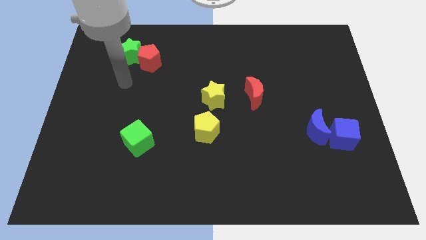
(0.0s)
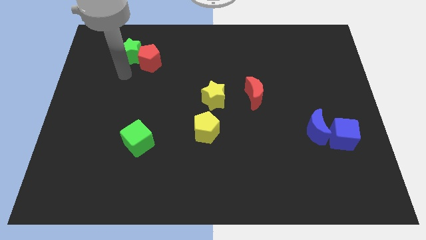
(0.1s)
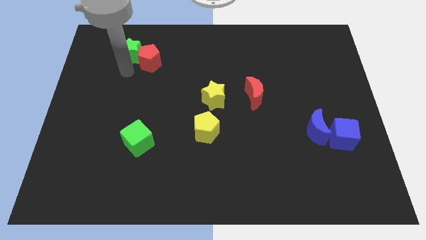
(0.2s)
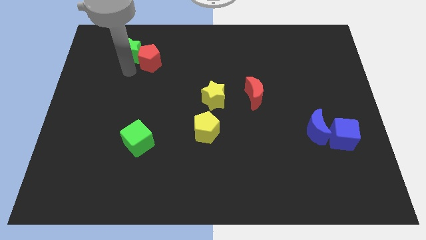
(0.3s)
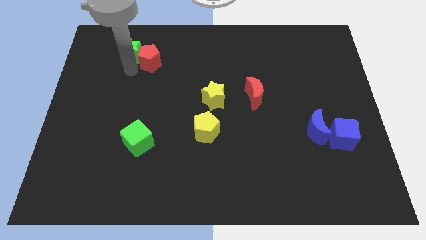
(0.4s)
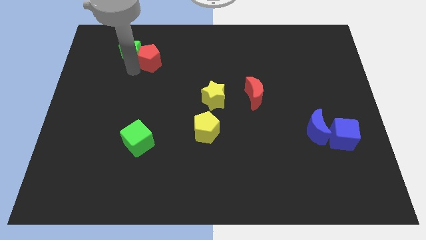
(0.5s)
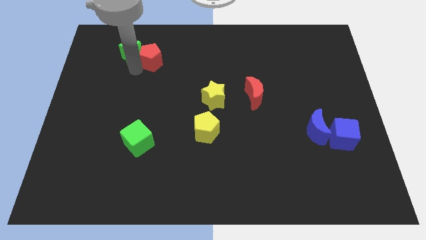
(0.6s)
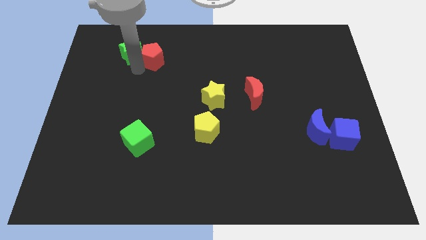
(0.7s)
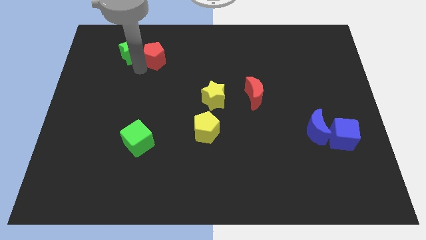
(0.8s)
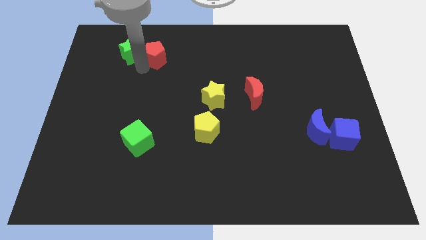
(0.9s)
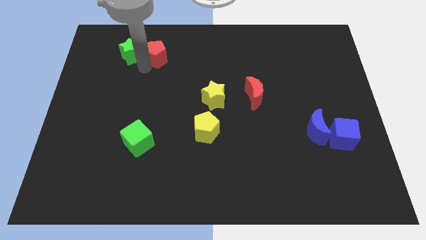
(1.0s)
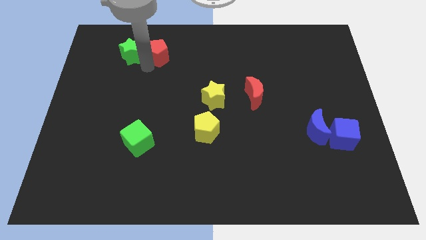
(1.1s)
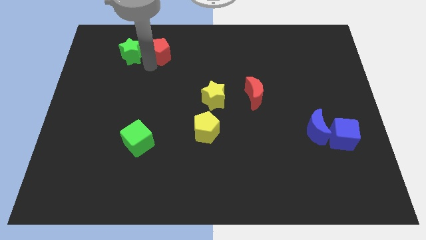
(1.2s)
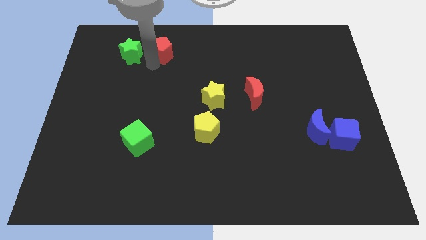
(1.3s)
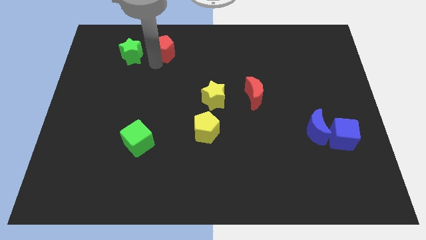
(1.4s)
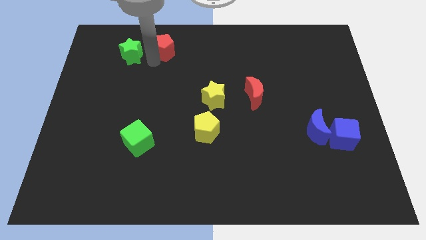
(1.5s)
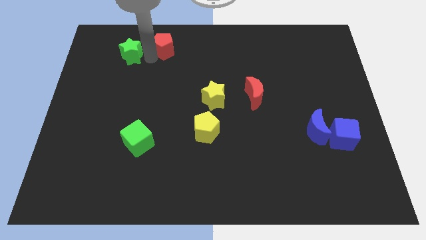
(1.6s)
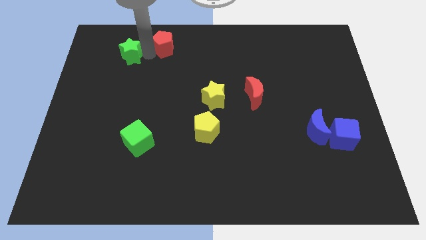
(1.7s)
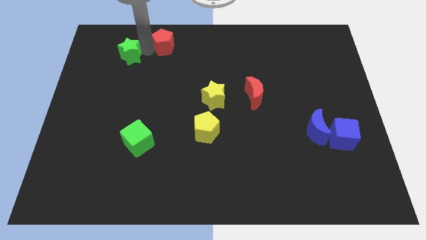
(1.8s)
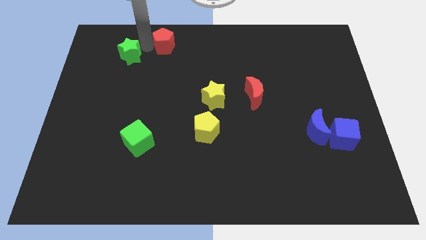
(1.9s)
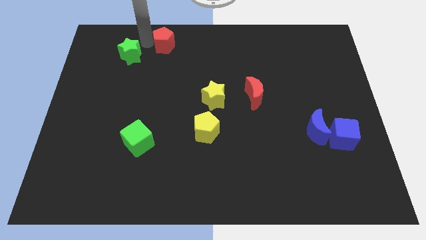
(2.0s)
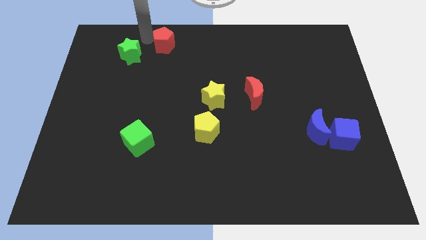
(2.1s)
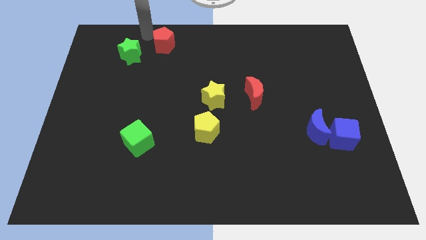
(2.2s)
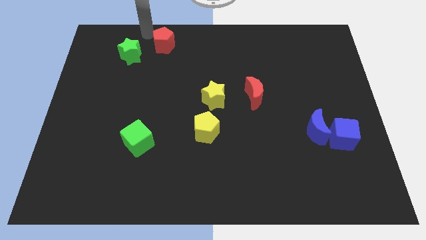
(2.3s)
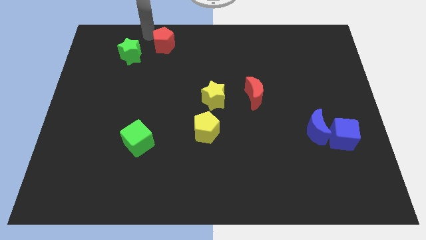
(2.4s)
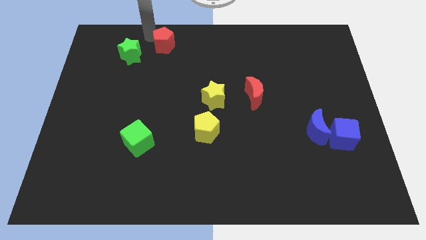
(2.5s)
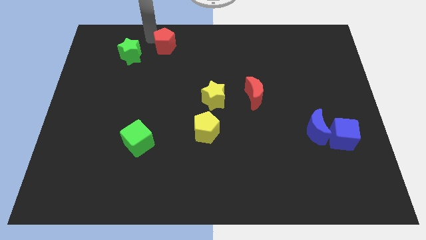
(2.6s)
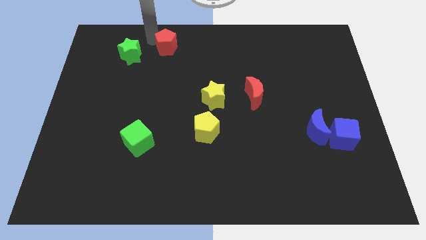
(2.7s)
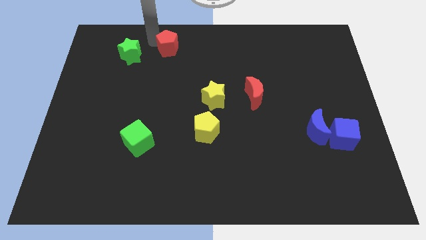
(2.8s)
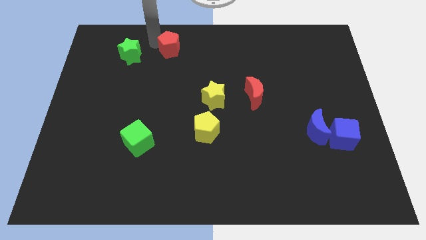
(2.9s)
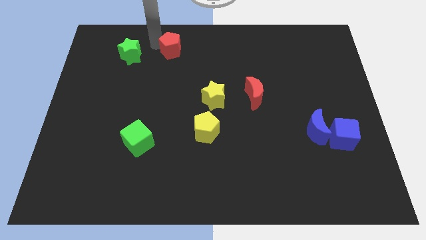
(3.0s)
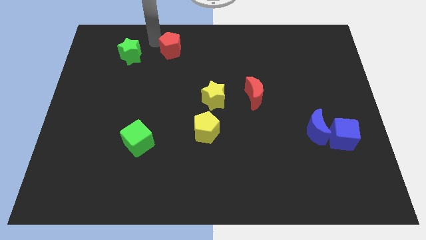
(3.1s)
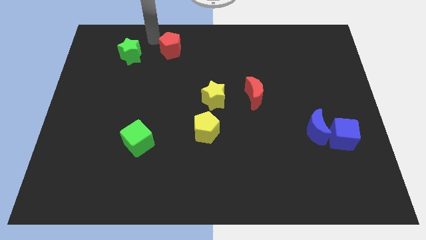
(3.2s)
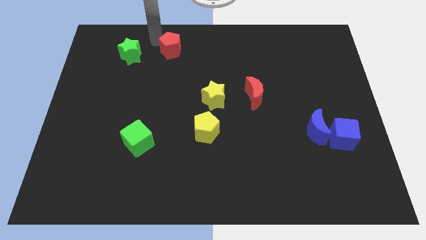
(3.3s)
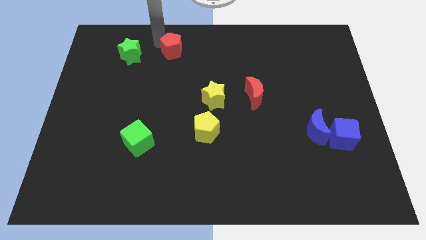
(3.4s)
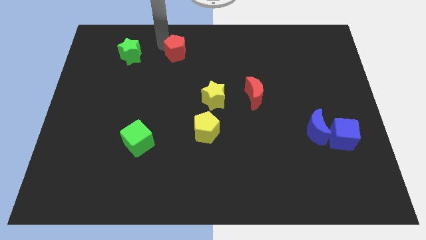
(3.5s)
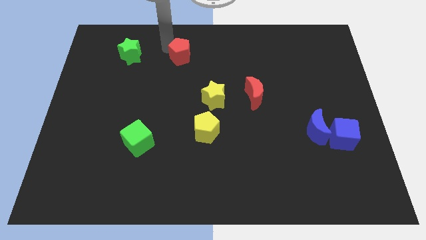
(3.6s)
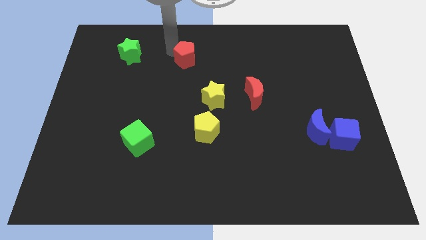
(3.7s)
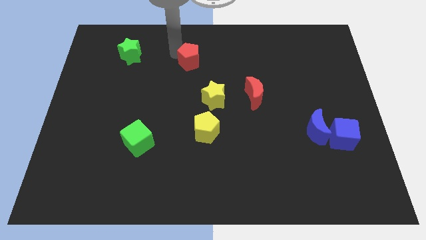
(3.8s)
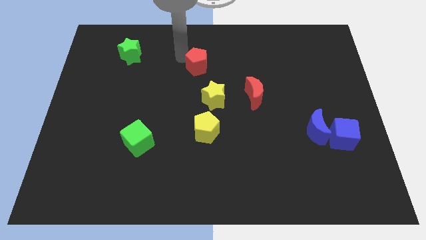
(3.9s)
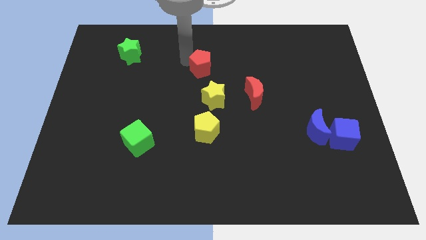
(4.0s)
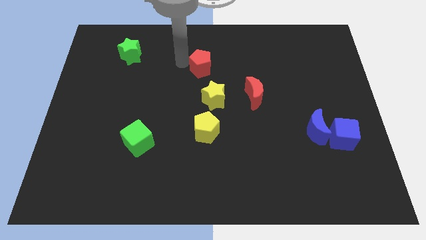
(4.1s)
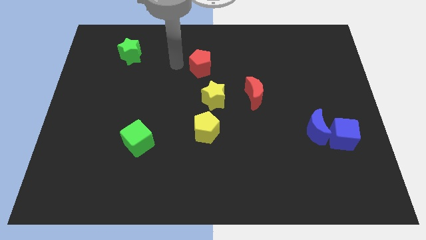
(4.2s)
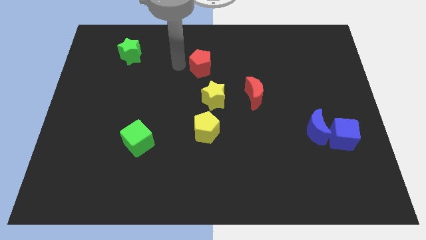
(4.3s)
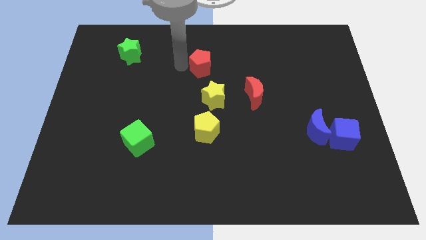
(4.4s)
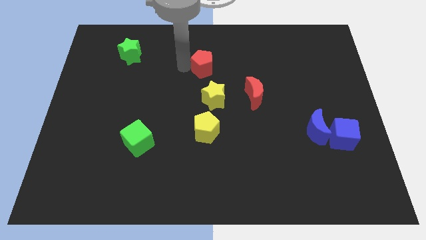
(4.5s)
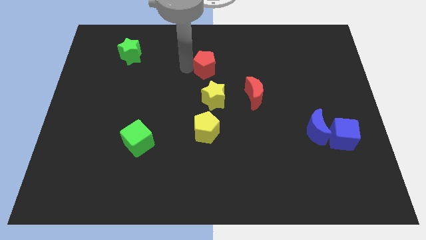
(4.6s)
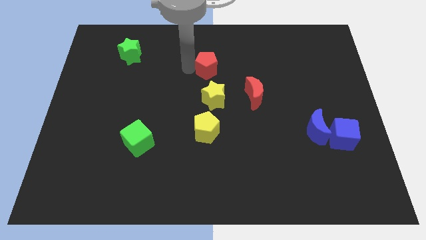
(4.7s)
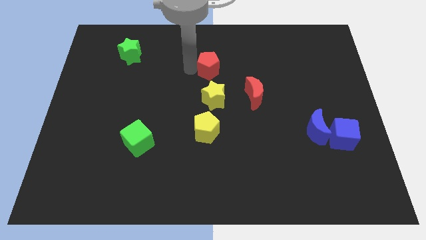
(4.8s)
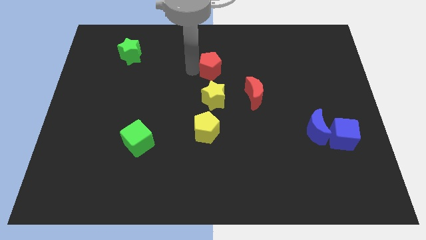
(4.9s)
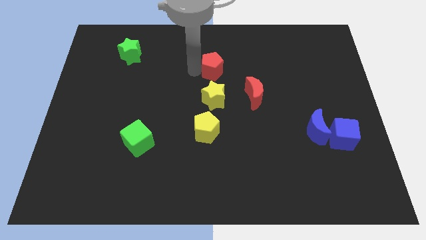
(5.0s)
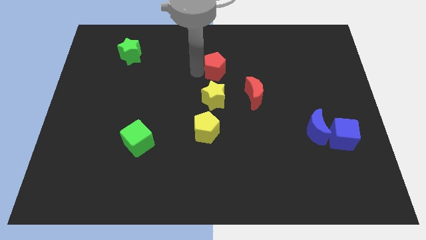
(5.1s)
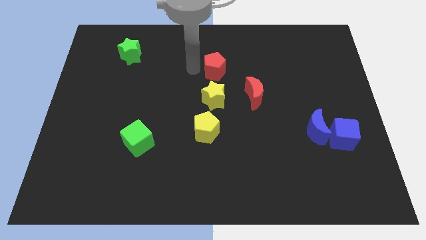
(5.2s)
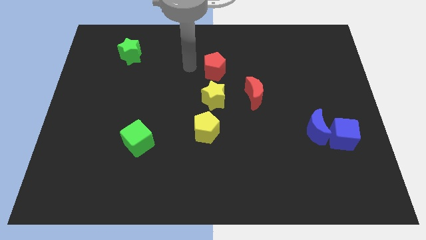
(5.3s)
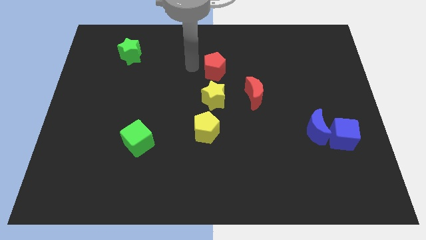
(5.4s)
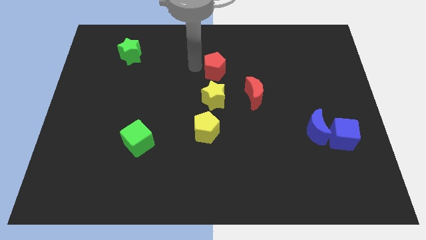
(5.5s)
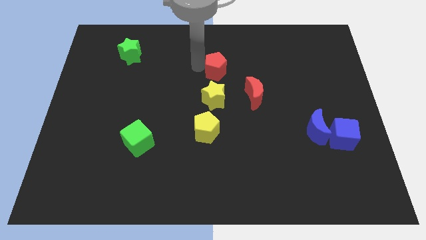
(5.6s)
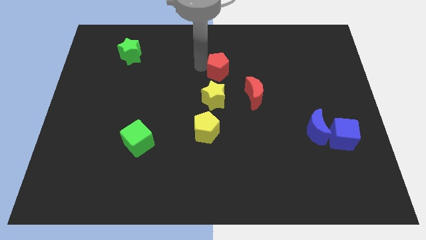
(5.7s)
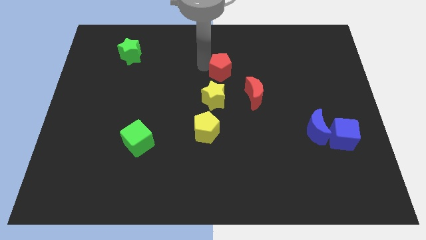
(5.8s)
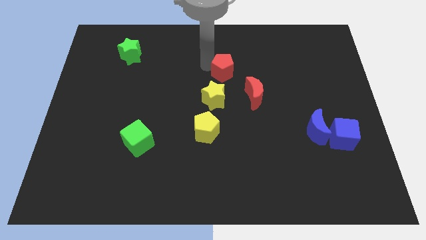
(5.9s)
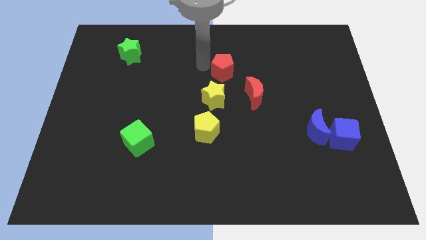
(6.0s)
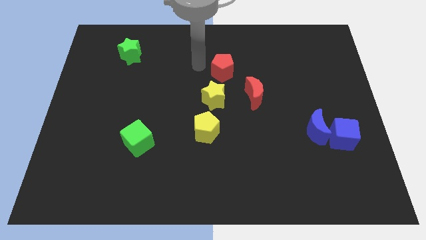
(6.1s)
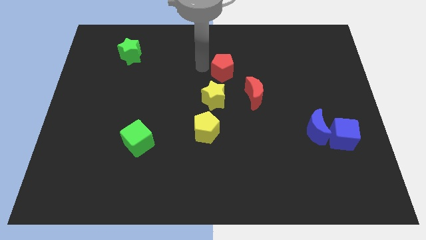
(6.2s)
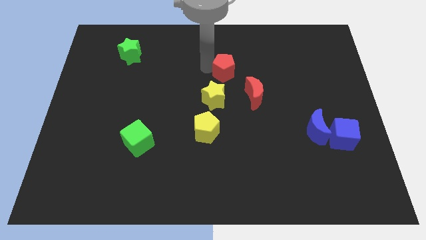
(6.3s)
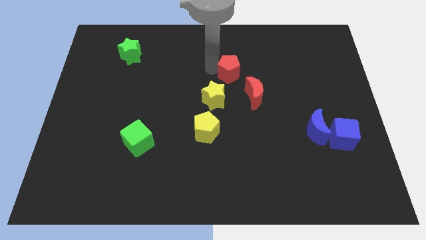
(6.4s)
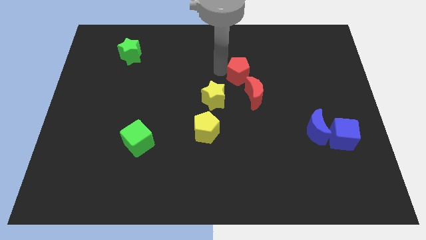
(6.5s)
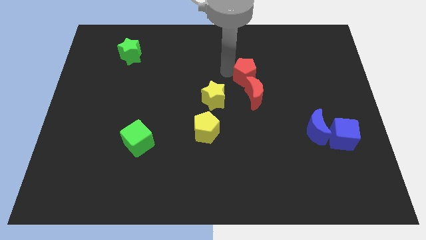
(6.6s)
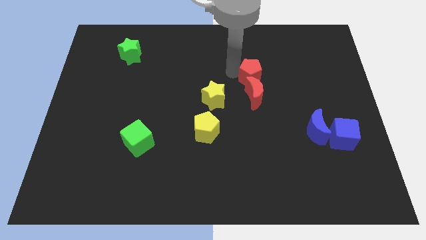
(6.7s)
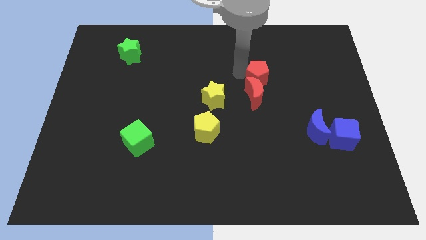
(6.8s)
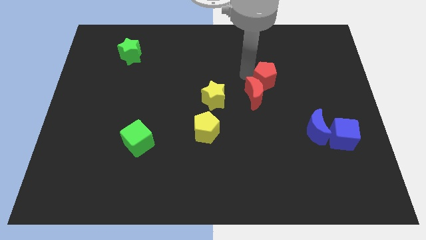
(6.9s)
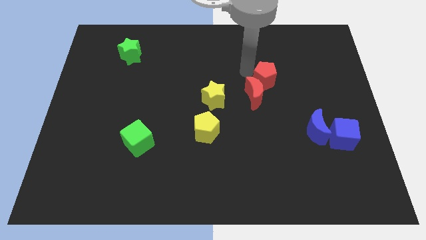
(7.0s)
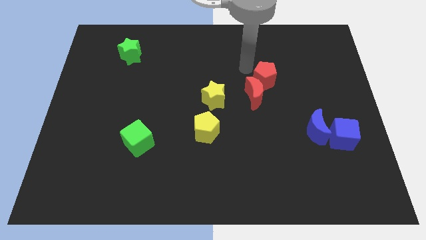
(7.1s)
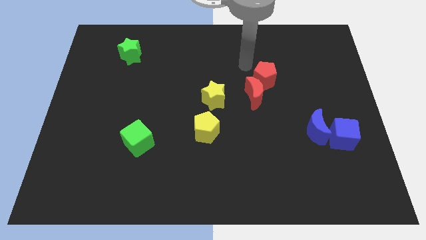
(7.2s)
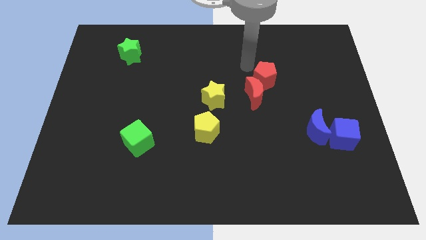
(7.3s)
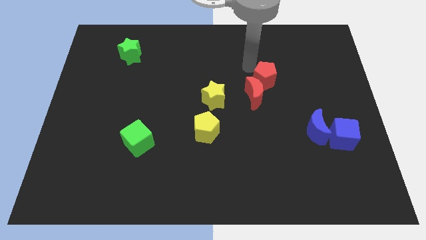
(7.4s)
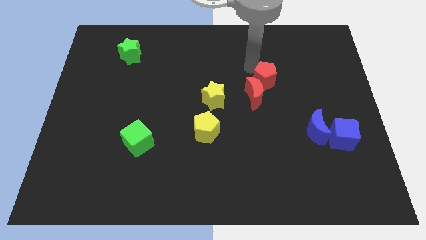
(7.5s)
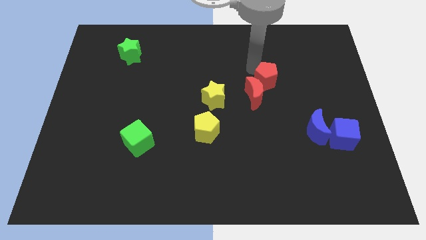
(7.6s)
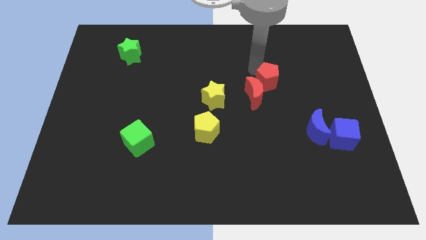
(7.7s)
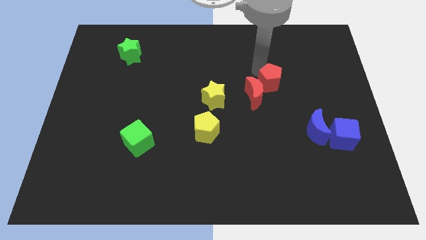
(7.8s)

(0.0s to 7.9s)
push the red pentagon right of the red moon
